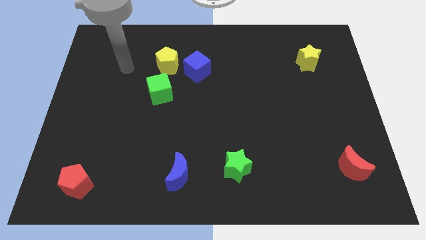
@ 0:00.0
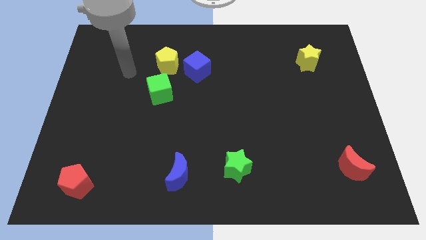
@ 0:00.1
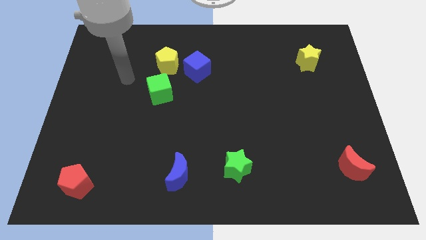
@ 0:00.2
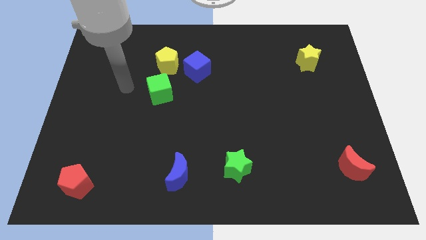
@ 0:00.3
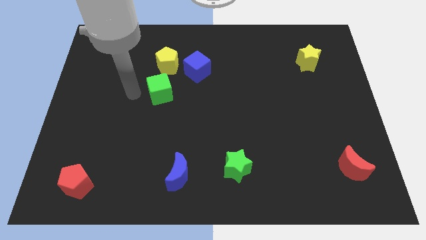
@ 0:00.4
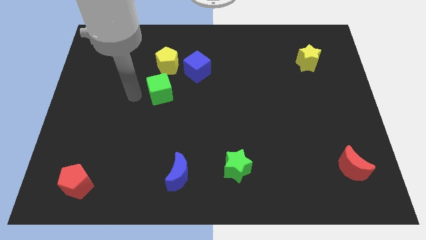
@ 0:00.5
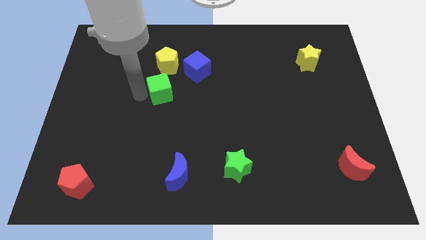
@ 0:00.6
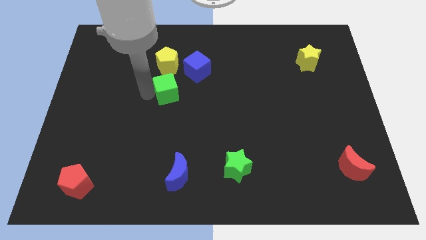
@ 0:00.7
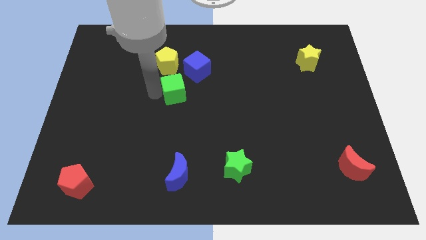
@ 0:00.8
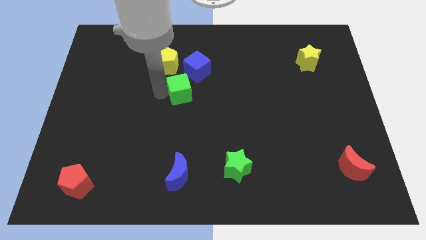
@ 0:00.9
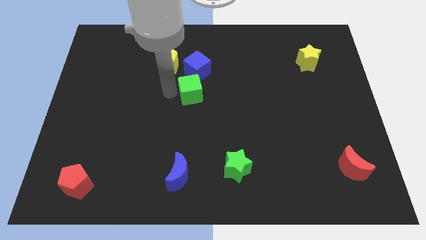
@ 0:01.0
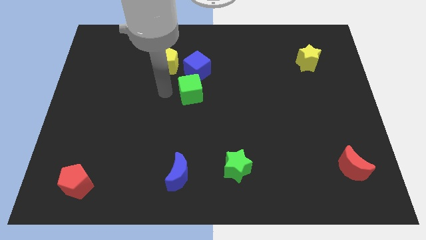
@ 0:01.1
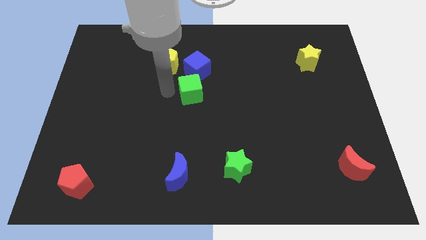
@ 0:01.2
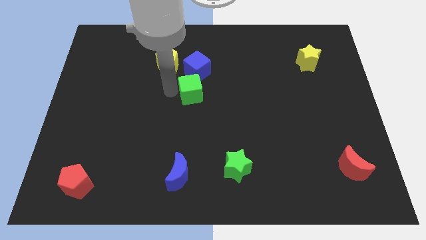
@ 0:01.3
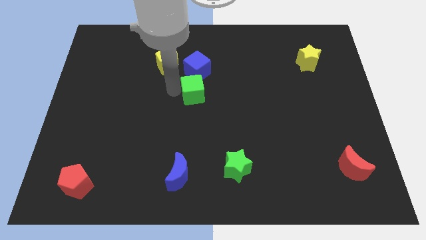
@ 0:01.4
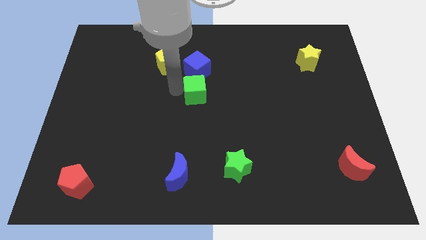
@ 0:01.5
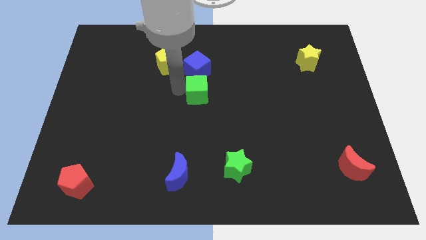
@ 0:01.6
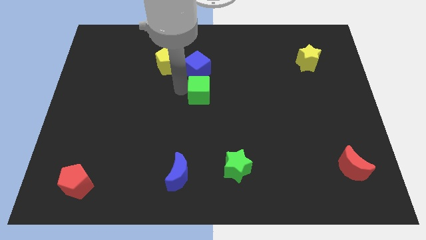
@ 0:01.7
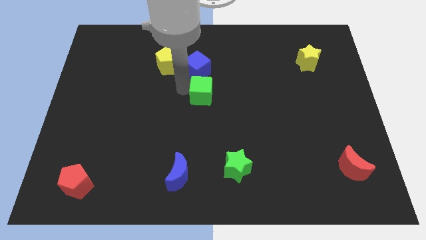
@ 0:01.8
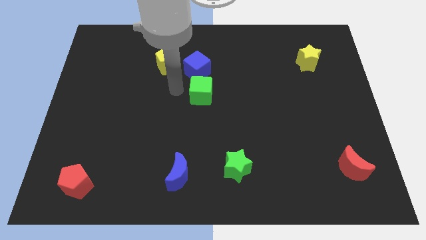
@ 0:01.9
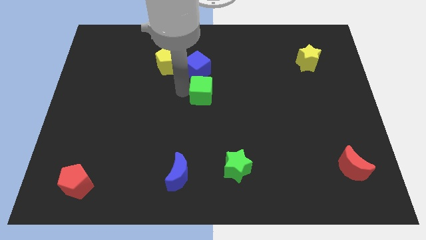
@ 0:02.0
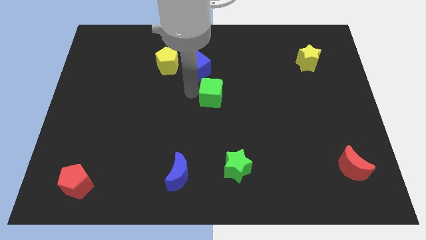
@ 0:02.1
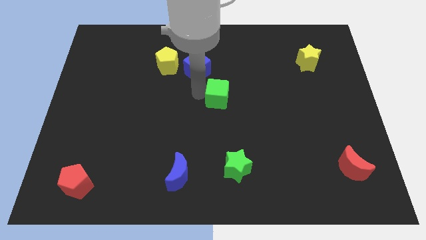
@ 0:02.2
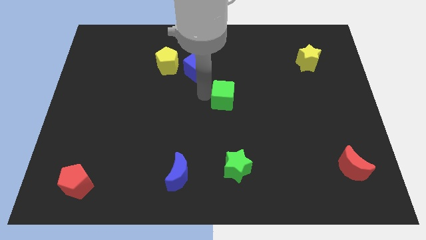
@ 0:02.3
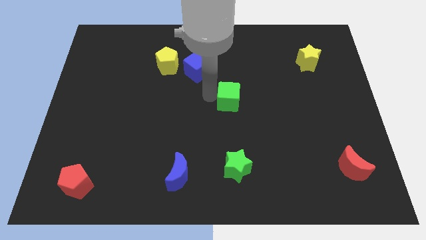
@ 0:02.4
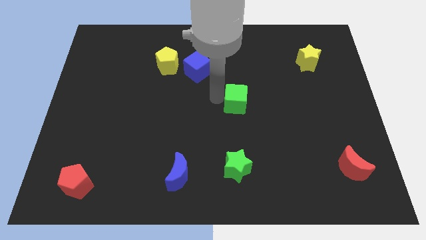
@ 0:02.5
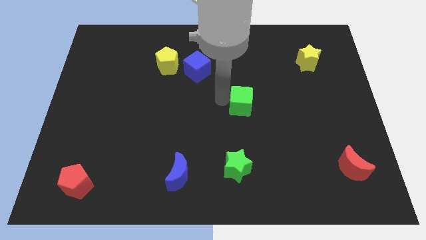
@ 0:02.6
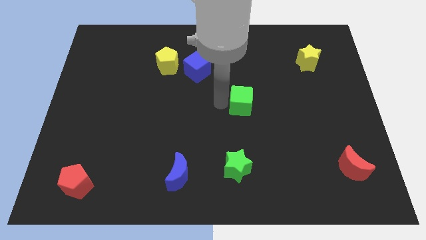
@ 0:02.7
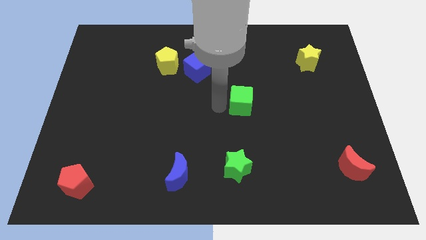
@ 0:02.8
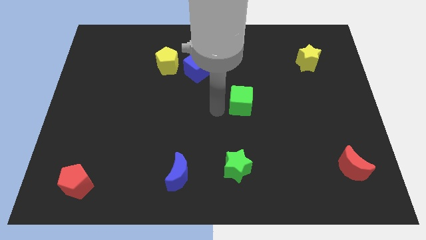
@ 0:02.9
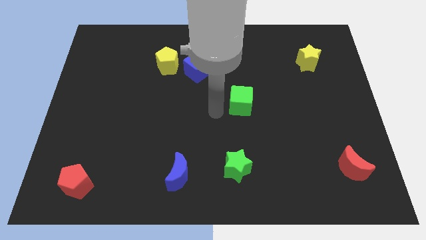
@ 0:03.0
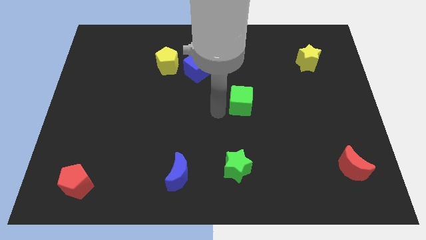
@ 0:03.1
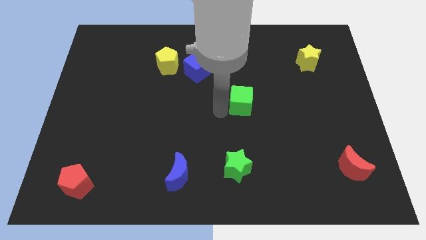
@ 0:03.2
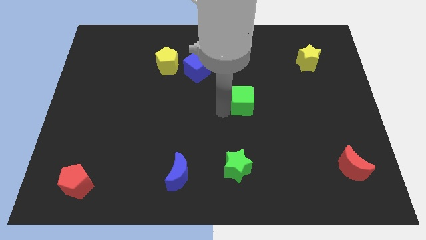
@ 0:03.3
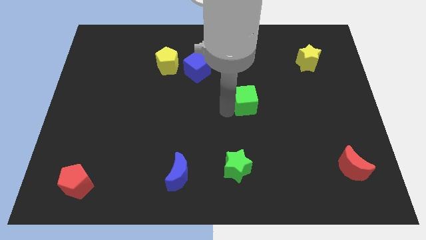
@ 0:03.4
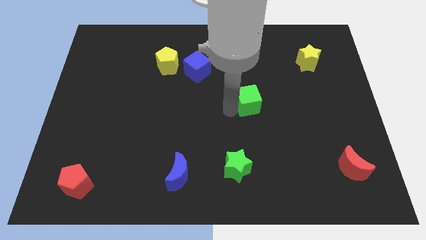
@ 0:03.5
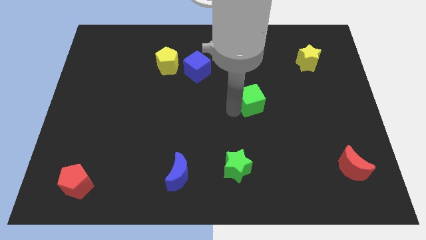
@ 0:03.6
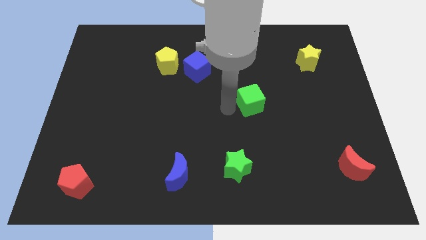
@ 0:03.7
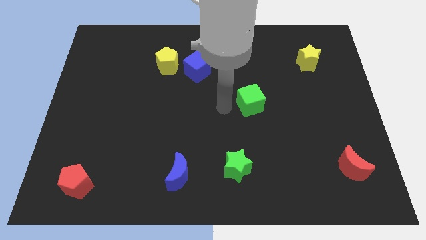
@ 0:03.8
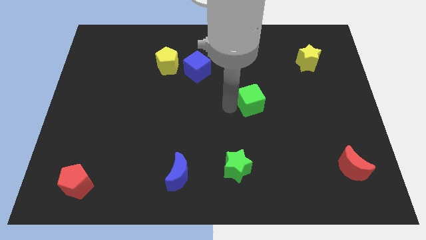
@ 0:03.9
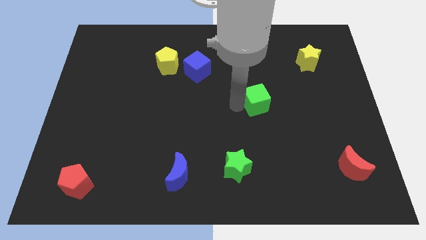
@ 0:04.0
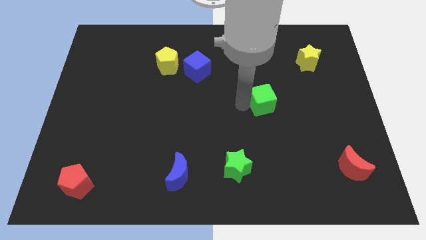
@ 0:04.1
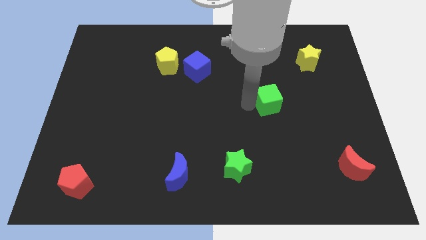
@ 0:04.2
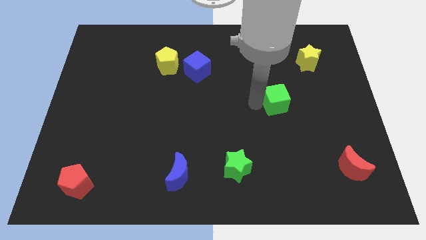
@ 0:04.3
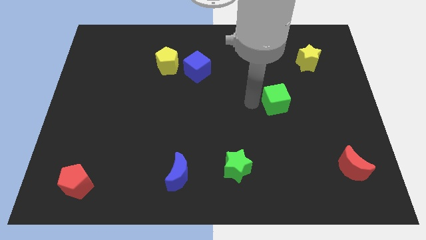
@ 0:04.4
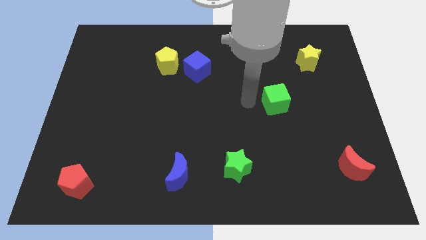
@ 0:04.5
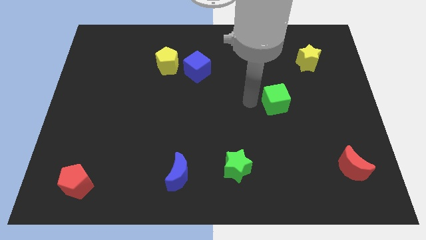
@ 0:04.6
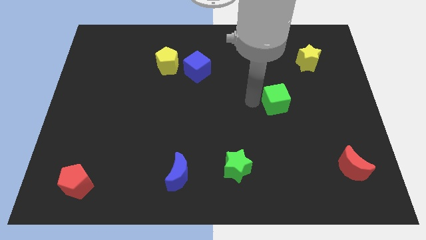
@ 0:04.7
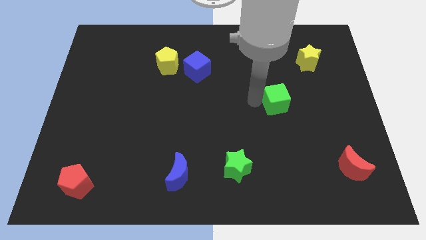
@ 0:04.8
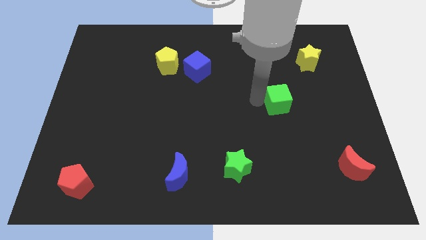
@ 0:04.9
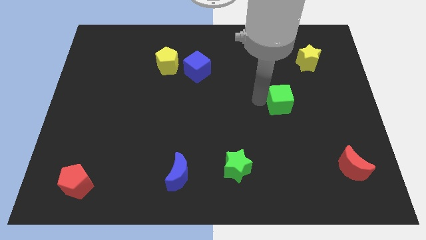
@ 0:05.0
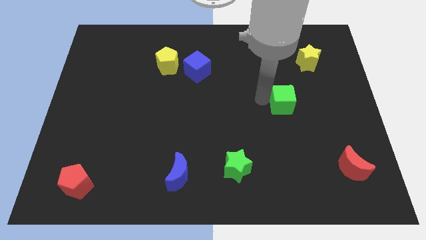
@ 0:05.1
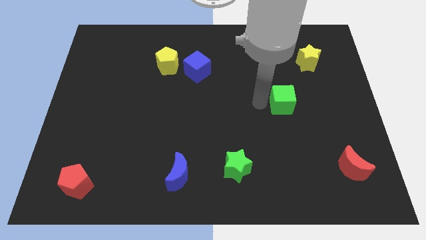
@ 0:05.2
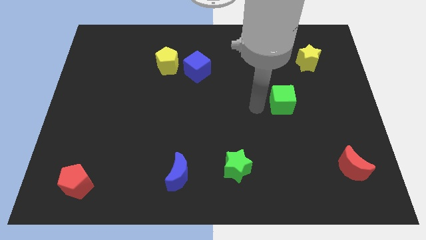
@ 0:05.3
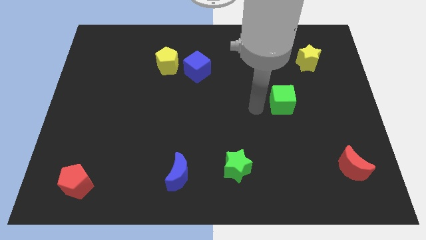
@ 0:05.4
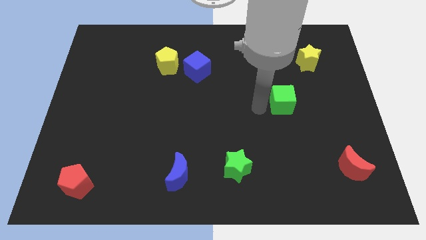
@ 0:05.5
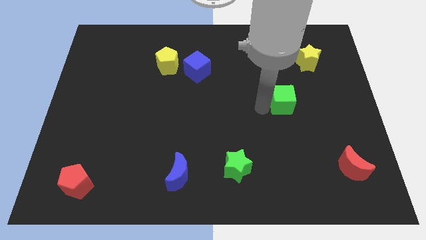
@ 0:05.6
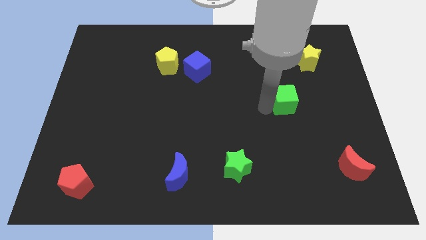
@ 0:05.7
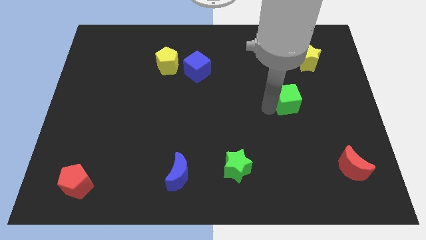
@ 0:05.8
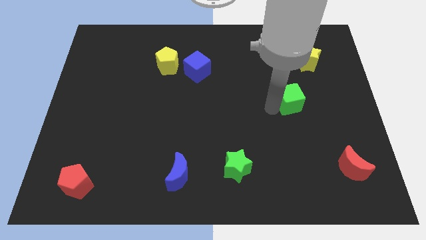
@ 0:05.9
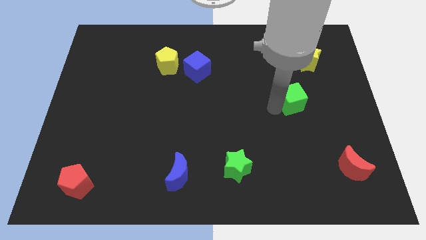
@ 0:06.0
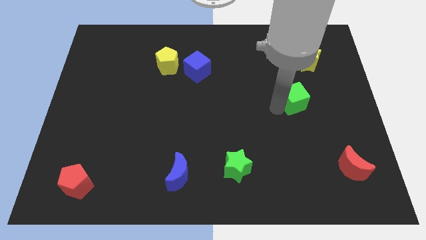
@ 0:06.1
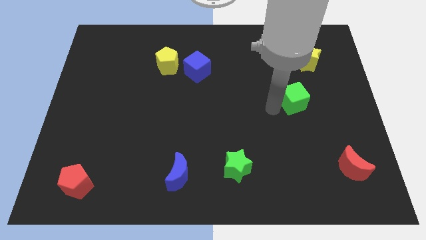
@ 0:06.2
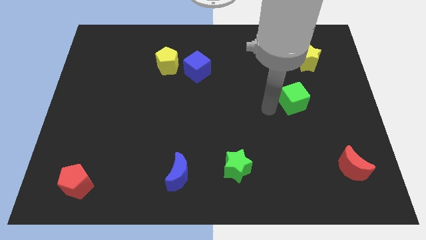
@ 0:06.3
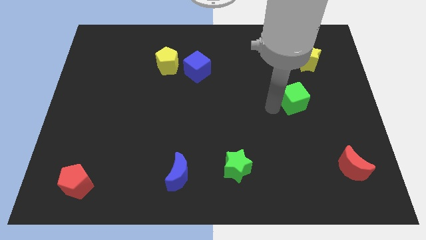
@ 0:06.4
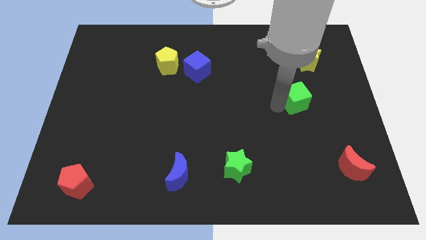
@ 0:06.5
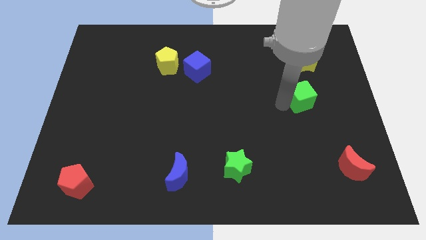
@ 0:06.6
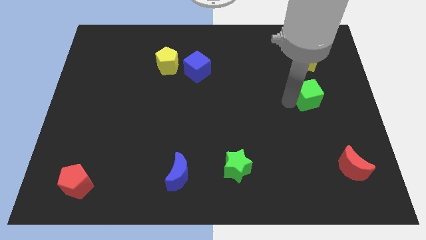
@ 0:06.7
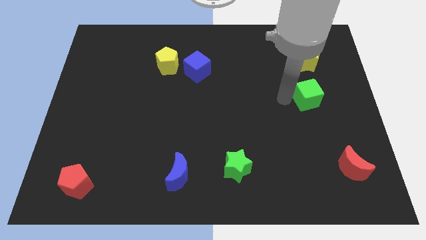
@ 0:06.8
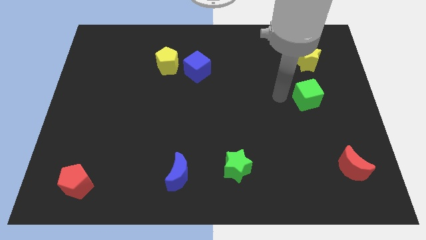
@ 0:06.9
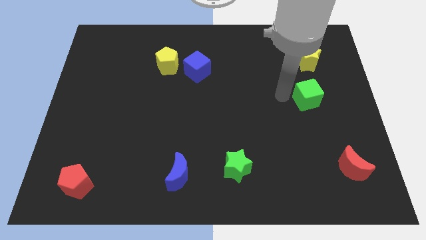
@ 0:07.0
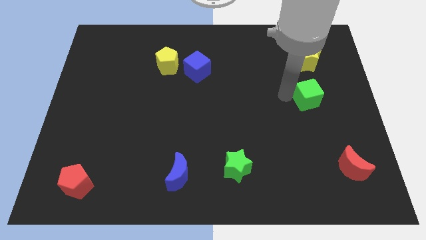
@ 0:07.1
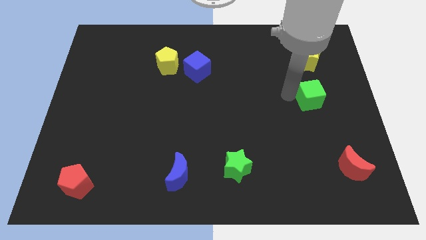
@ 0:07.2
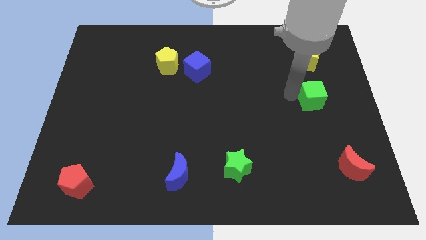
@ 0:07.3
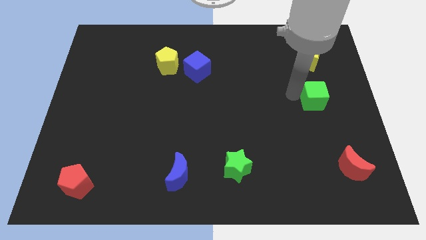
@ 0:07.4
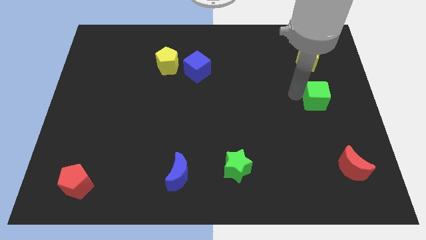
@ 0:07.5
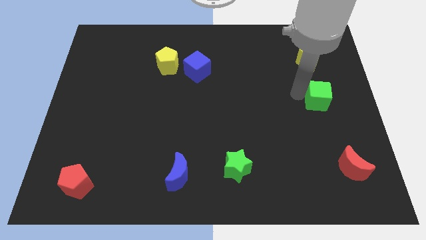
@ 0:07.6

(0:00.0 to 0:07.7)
put the green cube to the center right
